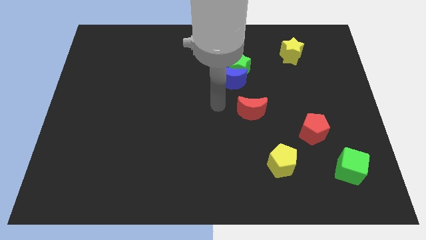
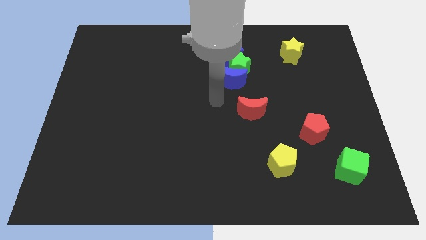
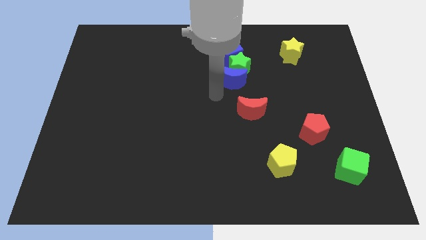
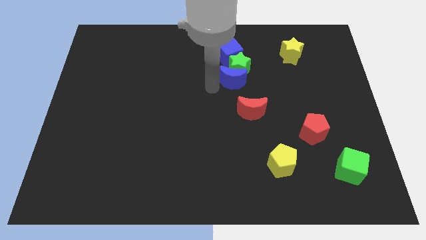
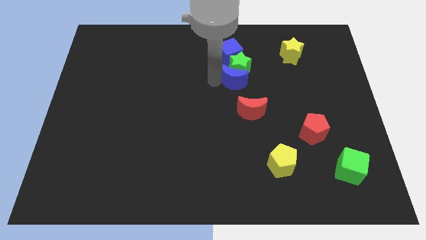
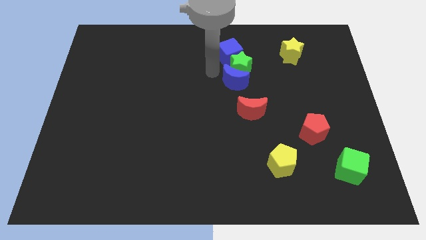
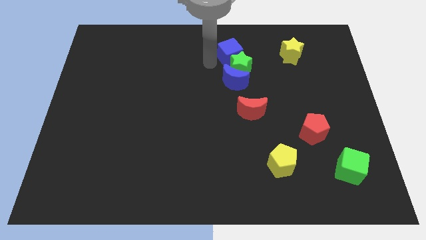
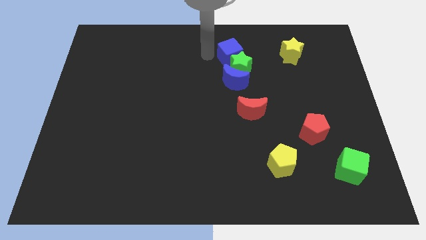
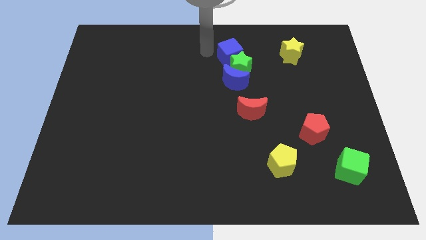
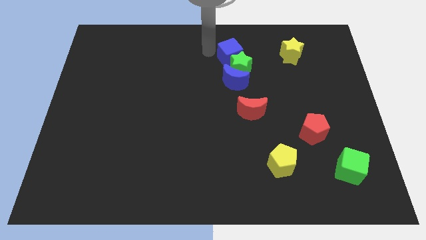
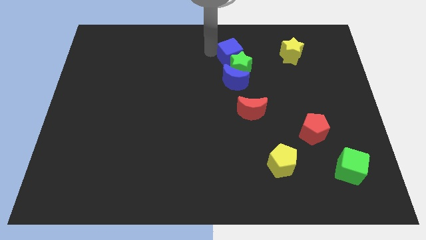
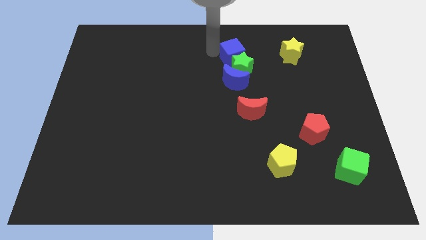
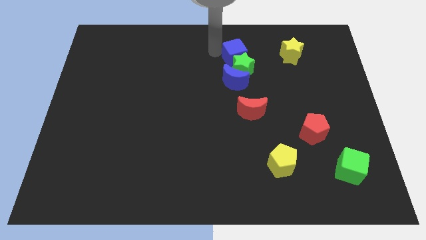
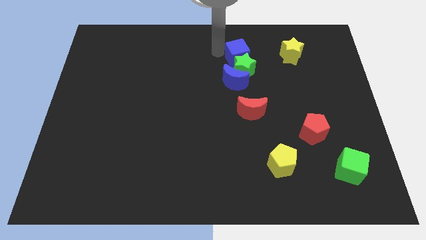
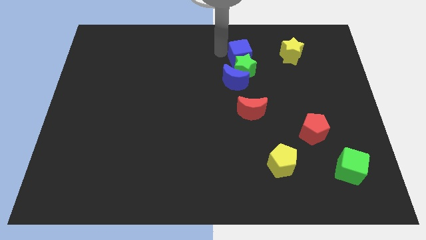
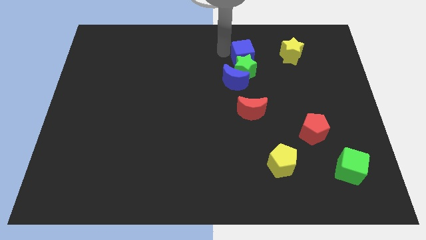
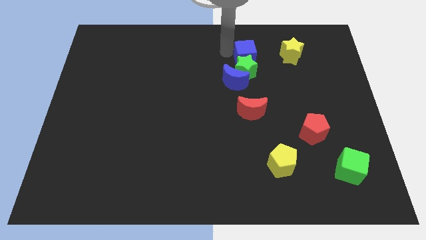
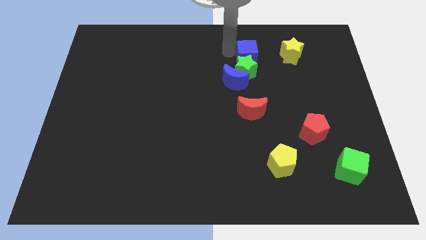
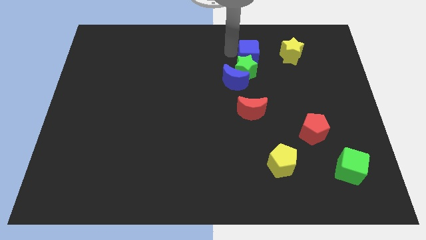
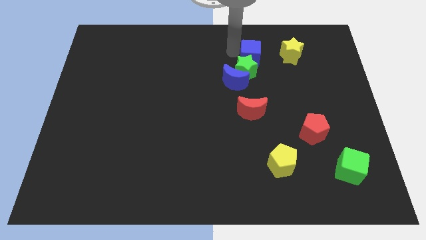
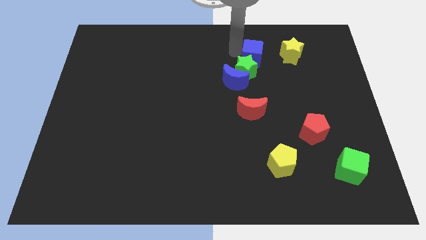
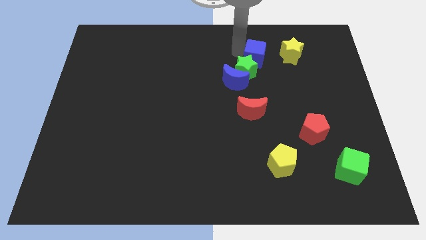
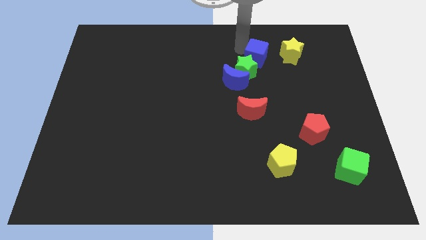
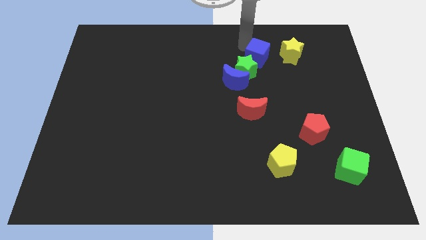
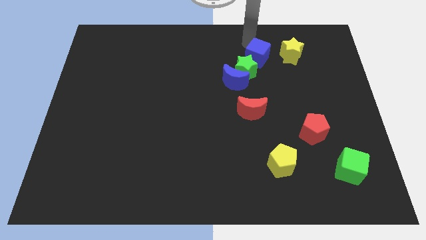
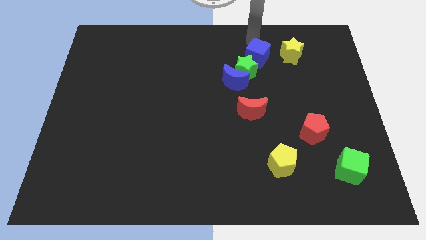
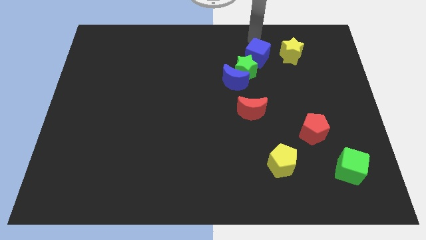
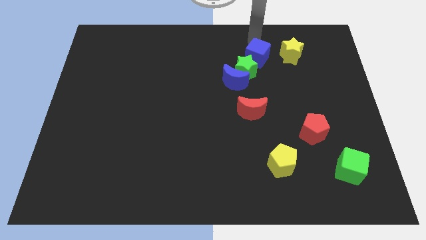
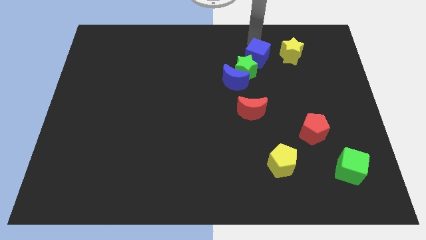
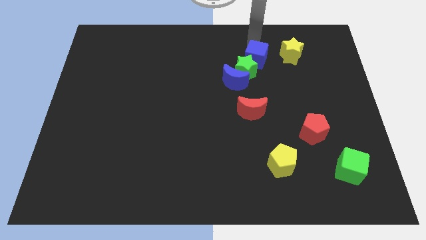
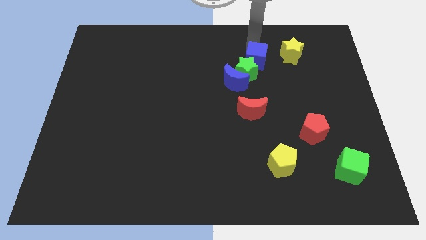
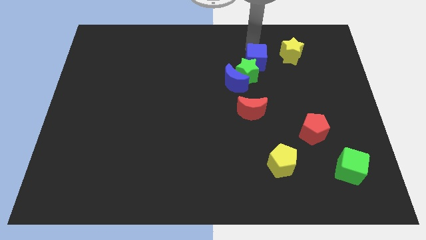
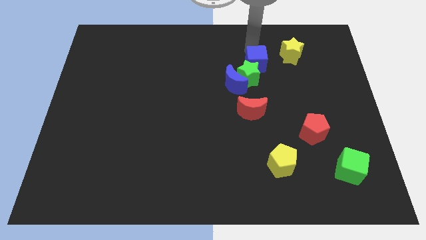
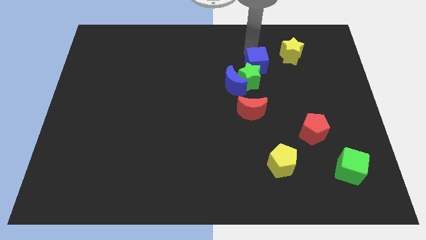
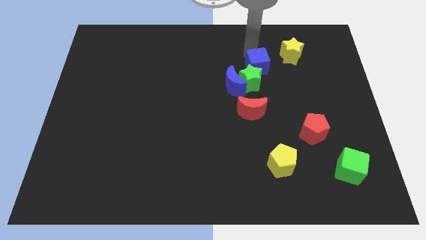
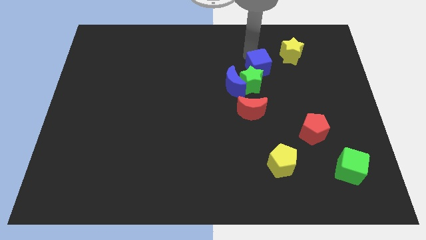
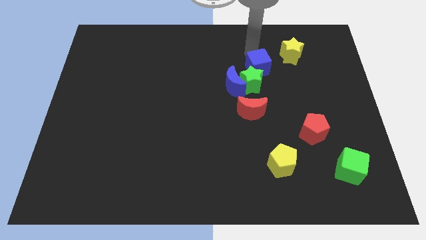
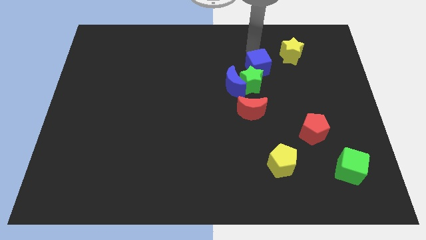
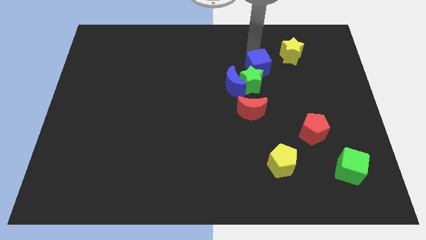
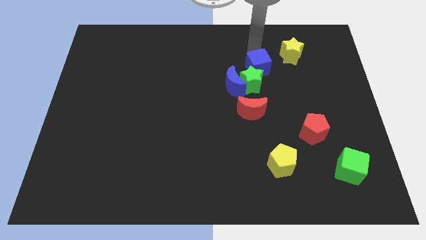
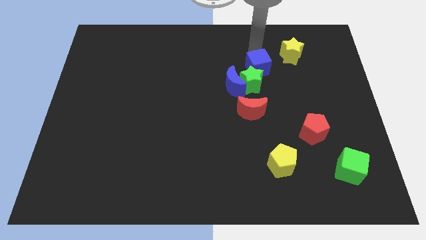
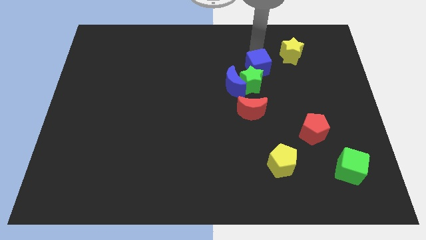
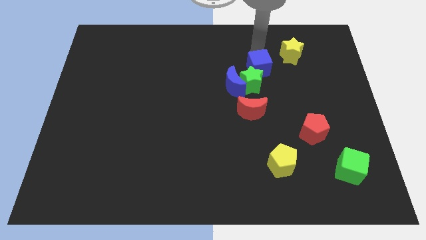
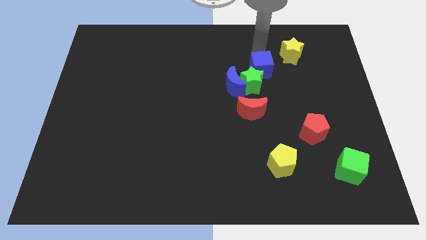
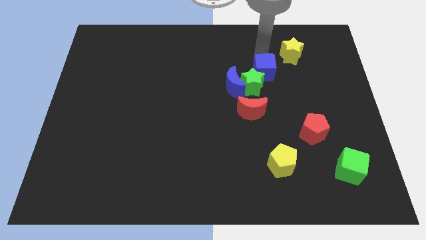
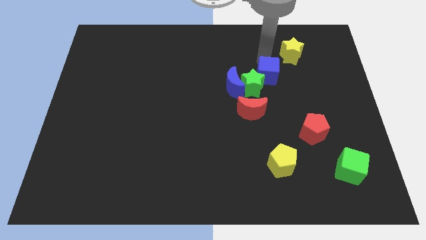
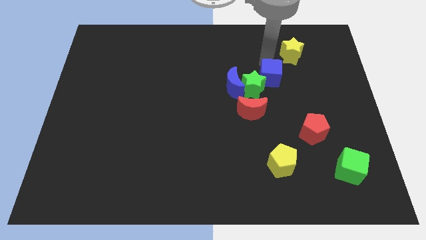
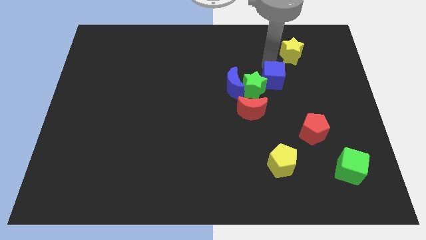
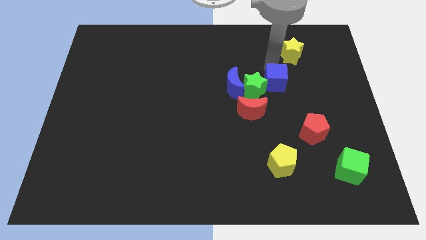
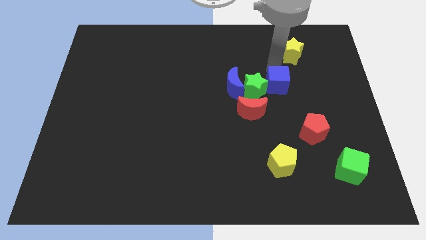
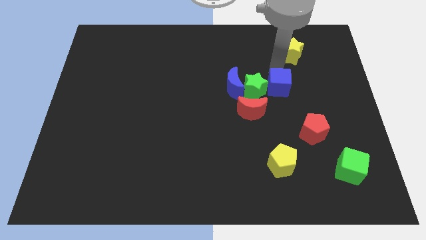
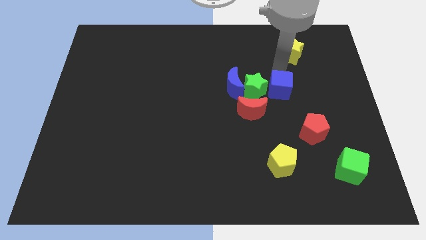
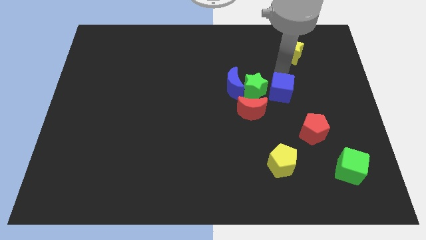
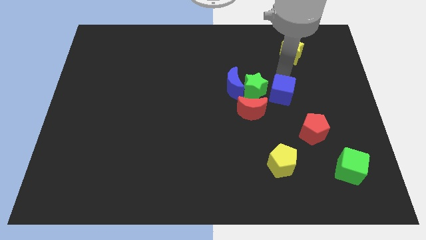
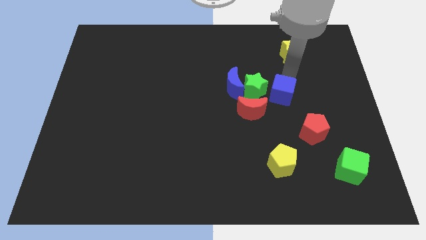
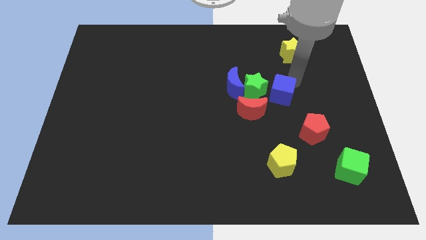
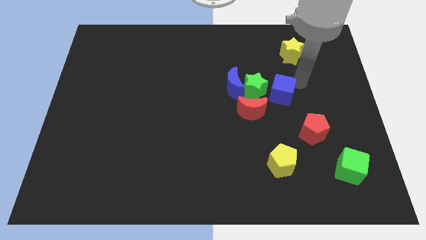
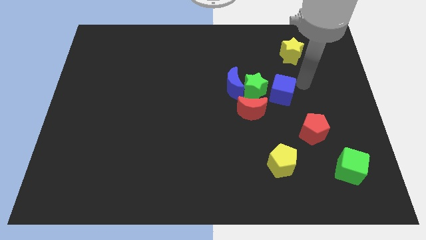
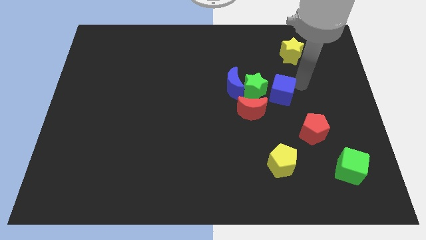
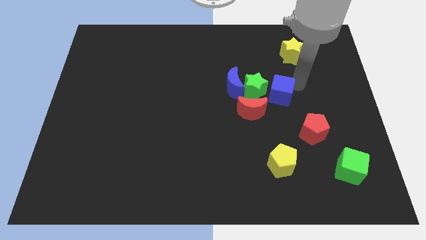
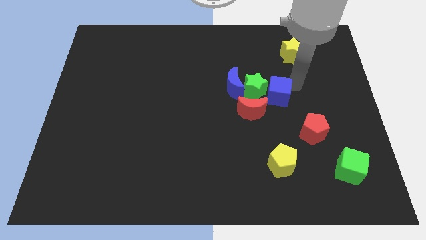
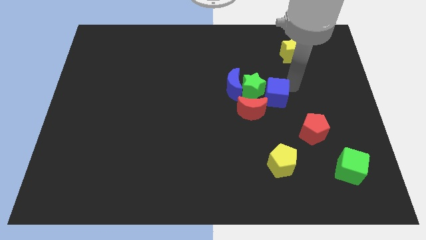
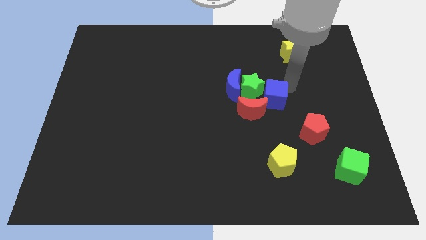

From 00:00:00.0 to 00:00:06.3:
push the blue cube to the bottom right of the blue moon

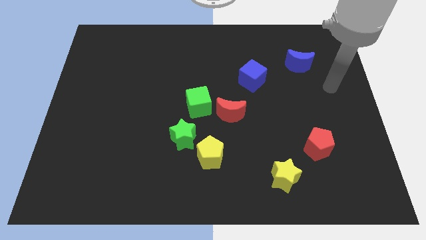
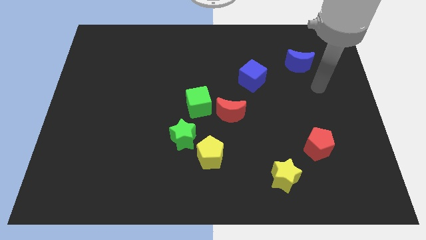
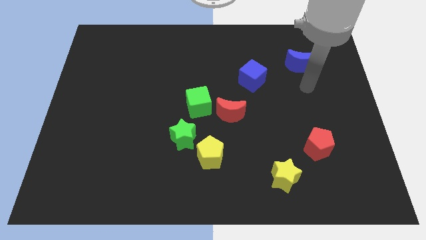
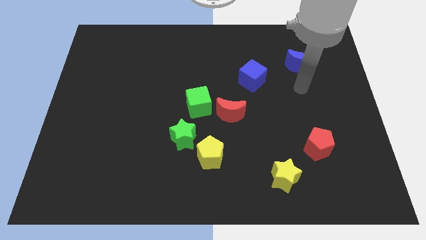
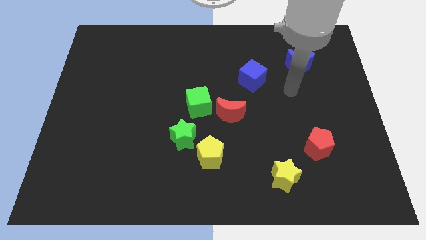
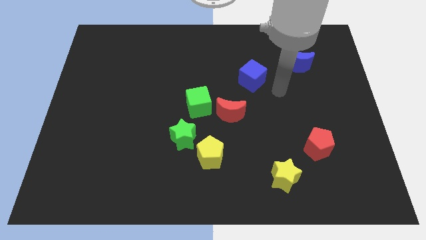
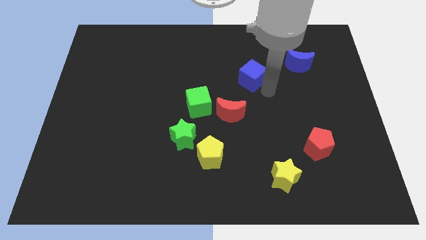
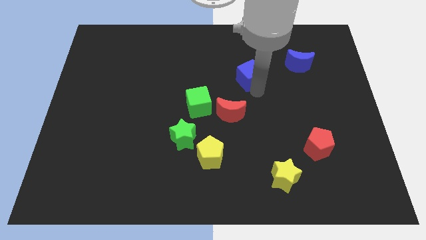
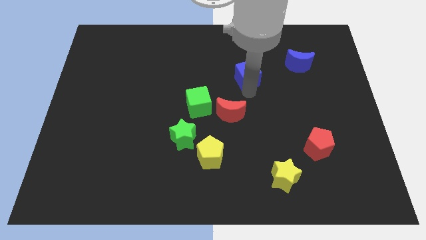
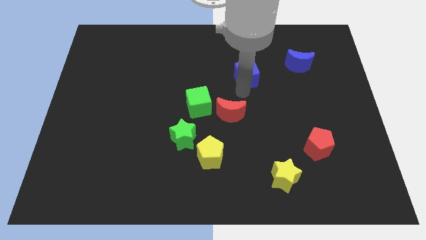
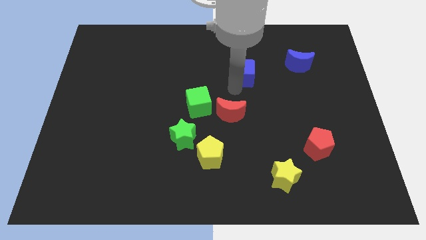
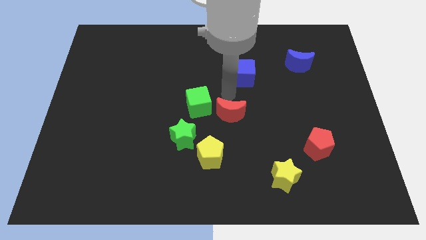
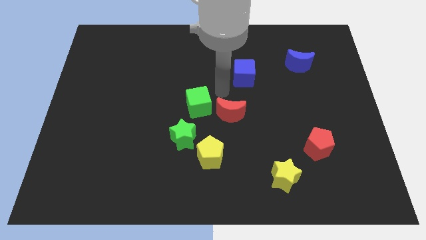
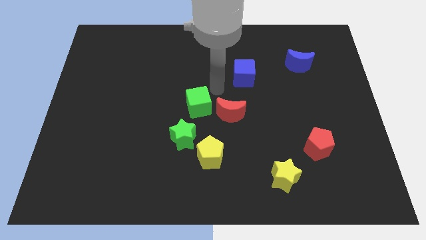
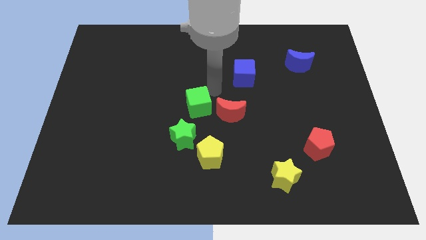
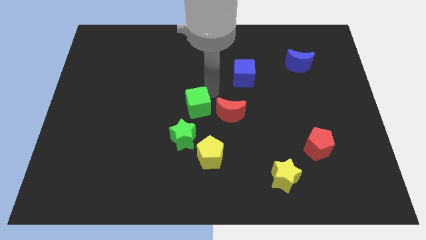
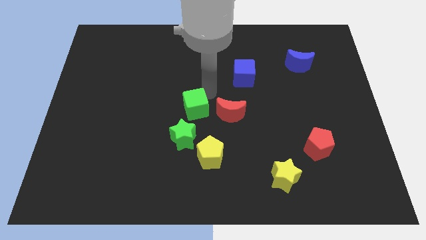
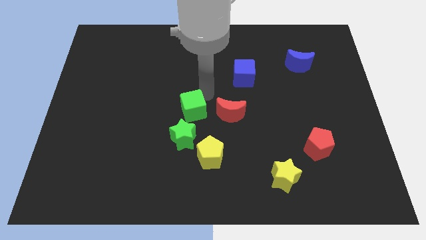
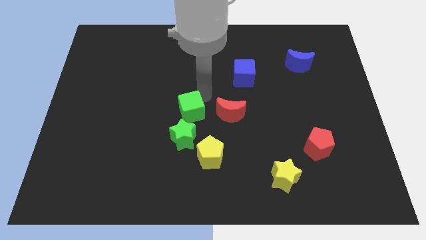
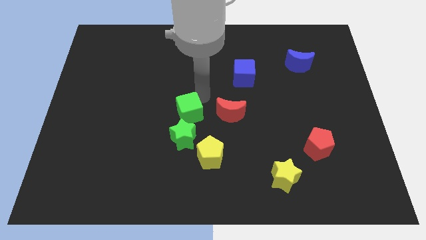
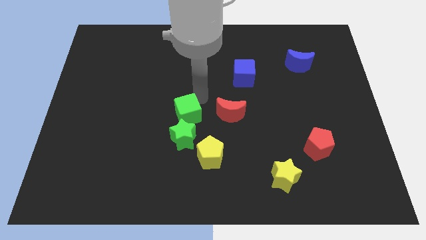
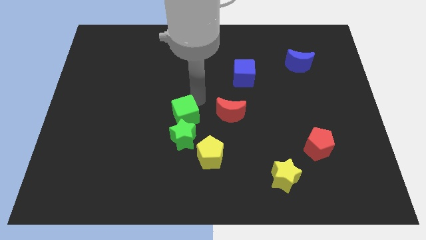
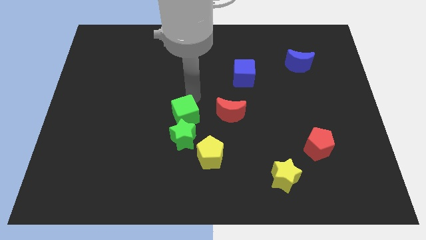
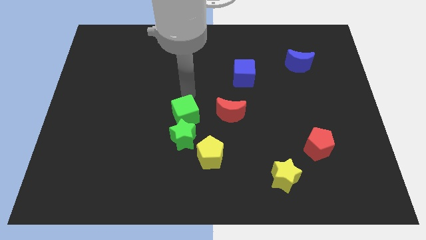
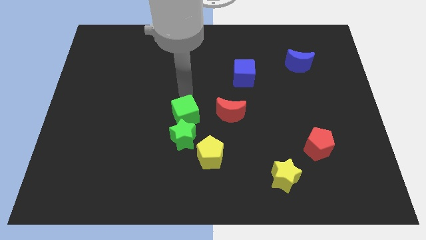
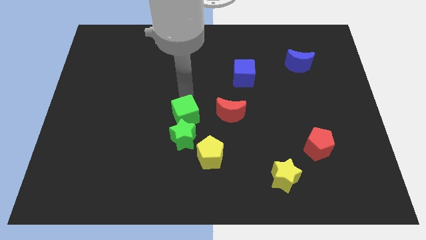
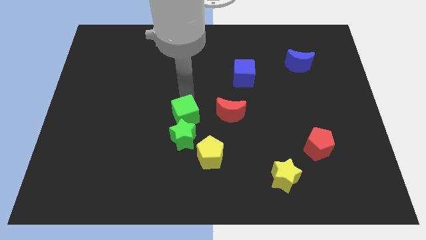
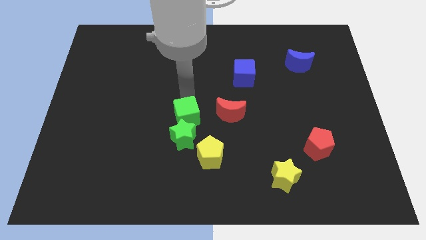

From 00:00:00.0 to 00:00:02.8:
move the green cube to the top left side of the yellow pentagon
